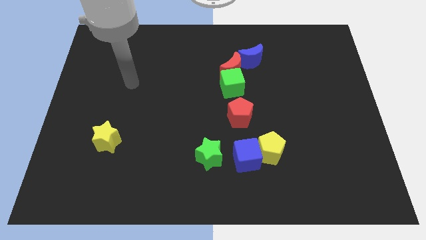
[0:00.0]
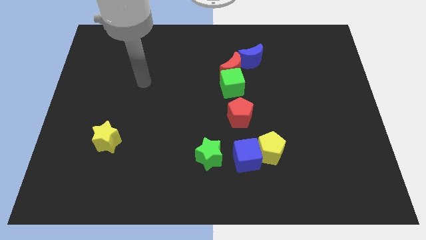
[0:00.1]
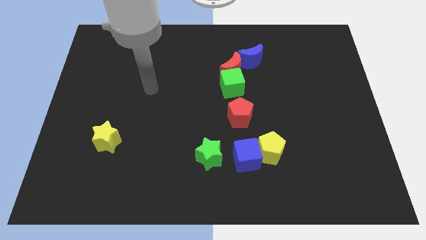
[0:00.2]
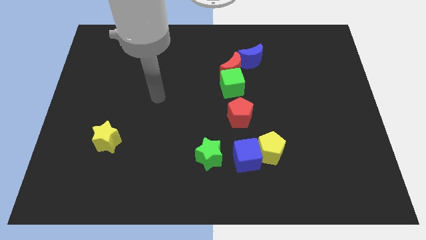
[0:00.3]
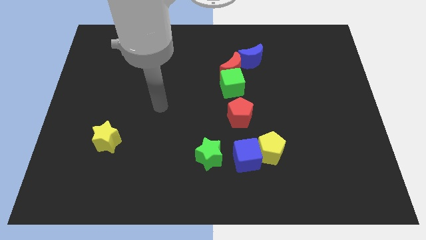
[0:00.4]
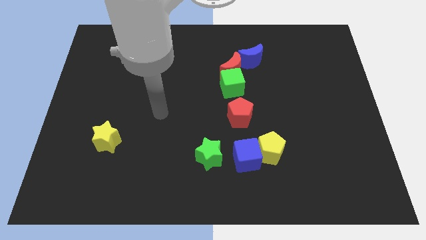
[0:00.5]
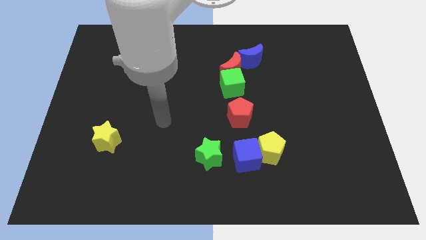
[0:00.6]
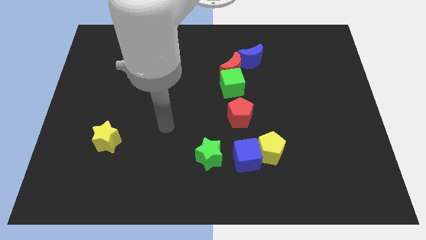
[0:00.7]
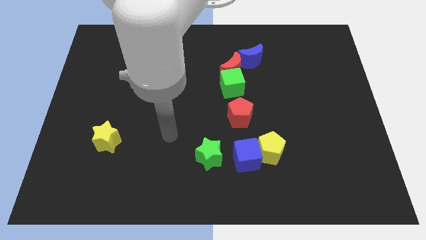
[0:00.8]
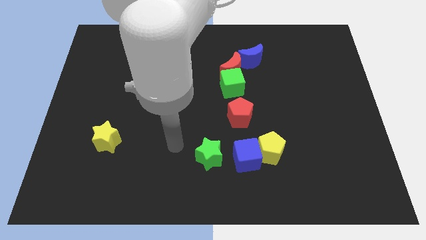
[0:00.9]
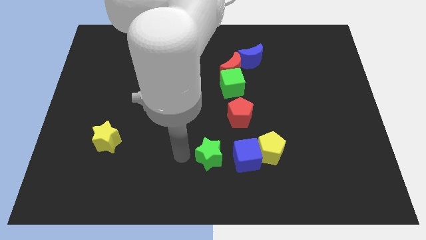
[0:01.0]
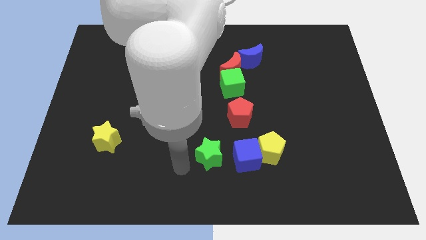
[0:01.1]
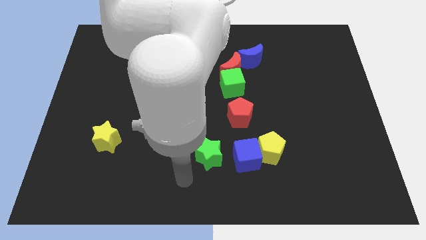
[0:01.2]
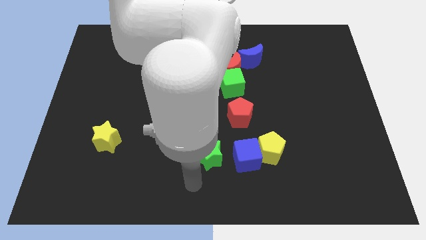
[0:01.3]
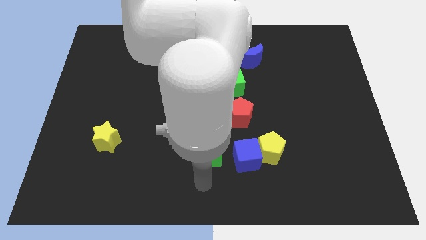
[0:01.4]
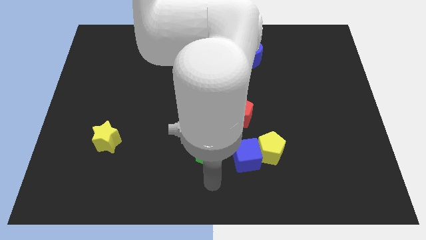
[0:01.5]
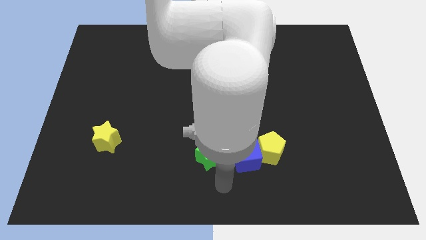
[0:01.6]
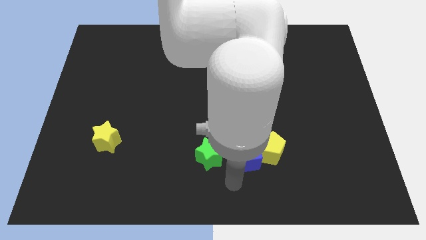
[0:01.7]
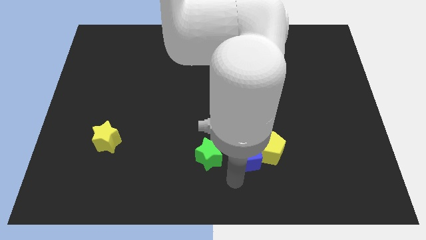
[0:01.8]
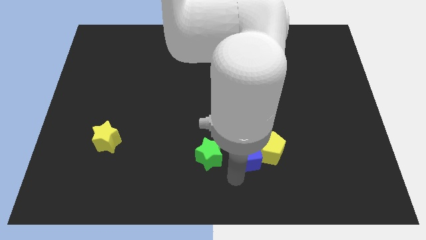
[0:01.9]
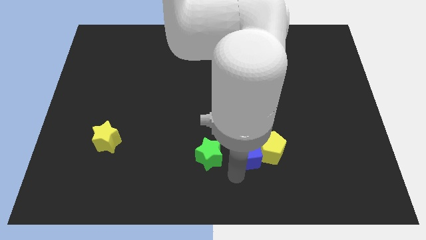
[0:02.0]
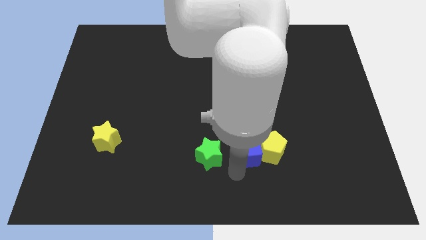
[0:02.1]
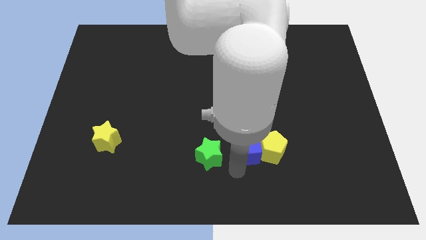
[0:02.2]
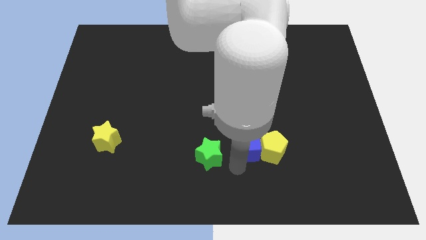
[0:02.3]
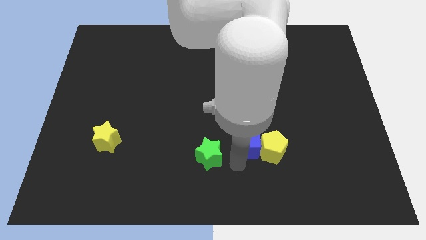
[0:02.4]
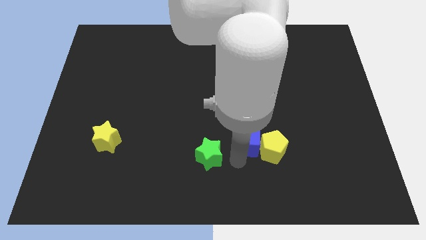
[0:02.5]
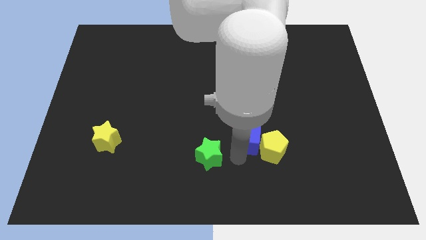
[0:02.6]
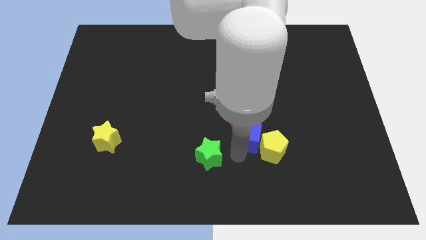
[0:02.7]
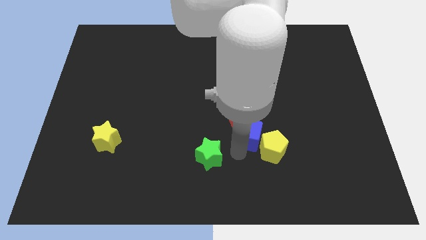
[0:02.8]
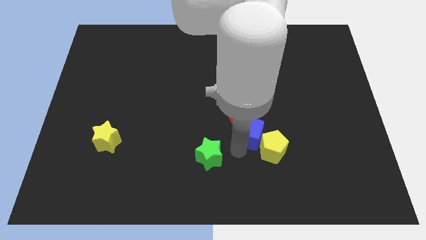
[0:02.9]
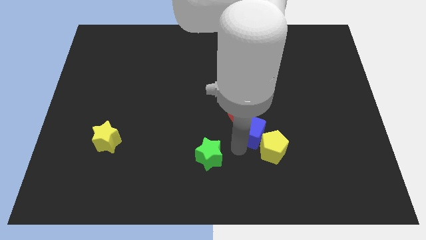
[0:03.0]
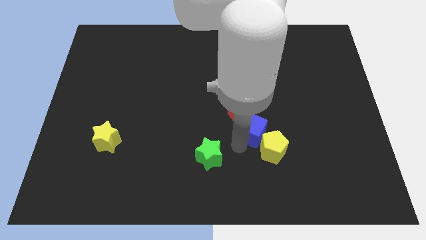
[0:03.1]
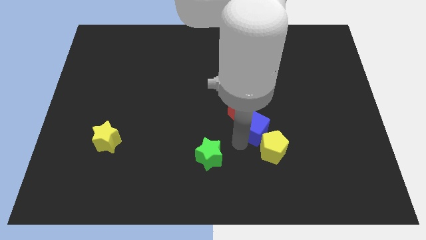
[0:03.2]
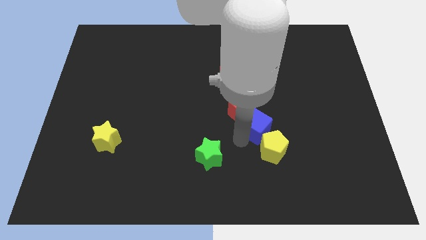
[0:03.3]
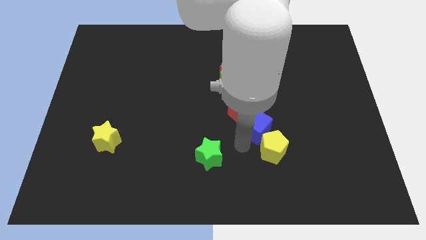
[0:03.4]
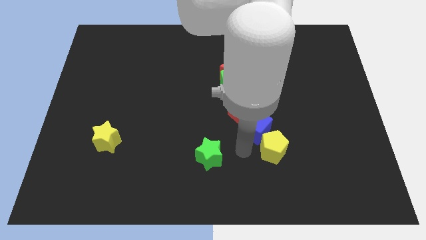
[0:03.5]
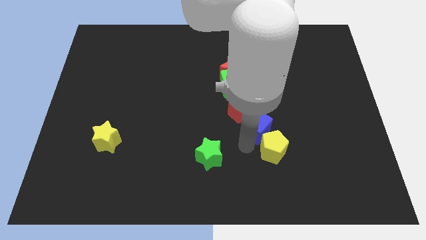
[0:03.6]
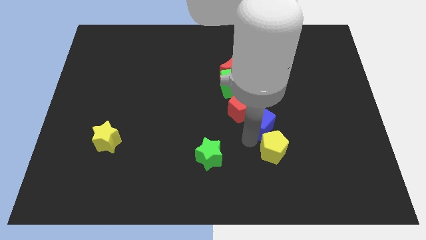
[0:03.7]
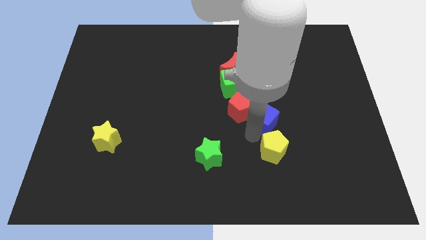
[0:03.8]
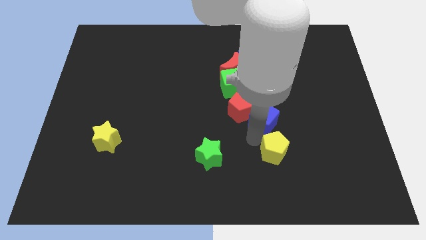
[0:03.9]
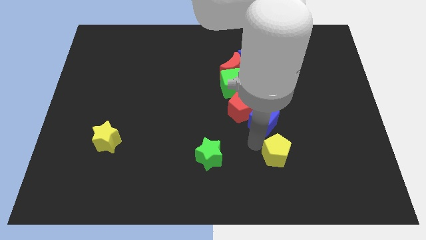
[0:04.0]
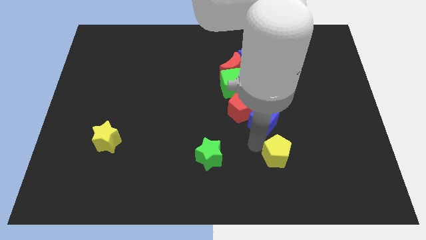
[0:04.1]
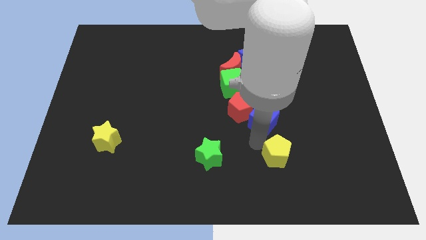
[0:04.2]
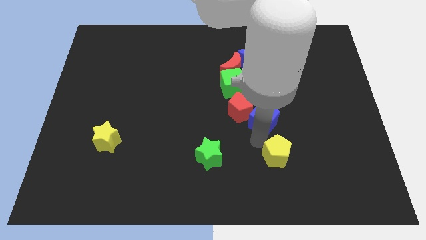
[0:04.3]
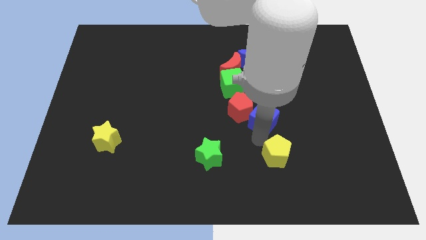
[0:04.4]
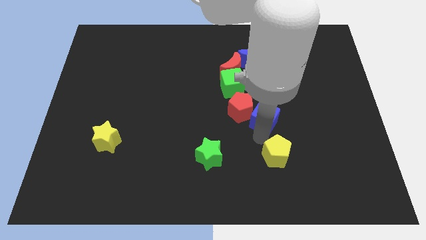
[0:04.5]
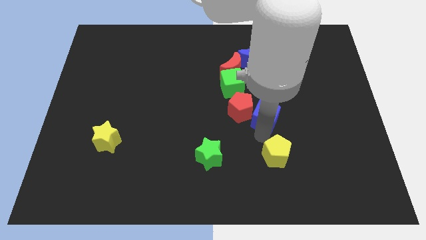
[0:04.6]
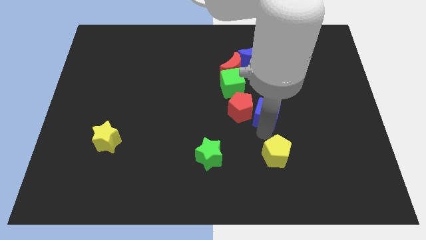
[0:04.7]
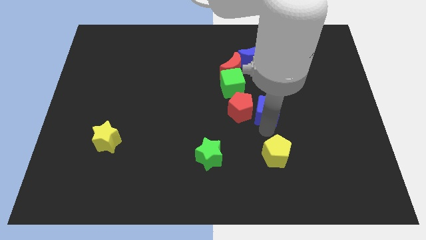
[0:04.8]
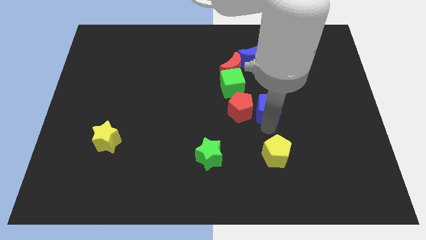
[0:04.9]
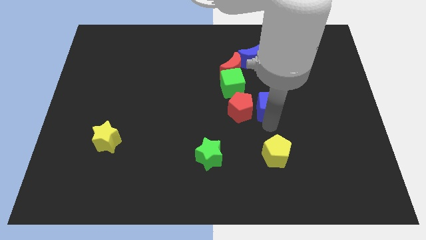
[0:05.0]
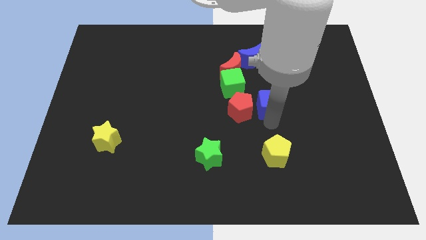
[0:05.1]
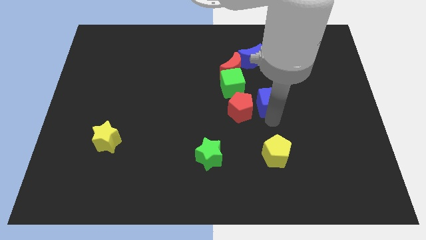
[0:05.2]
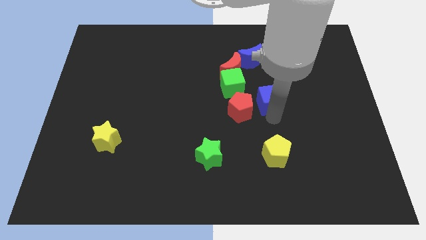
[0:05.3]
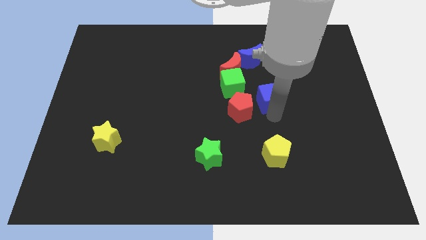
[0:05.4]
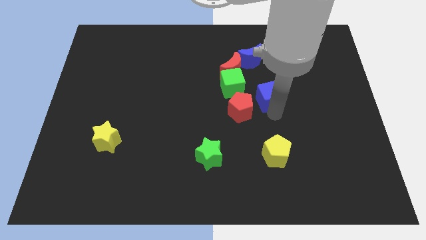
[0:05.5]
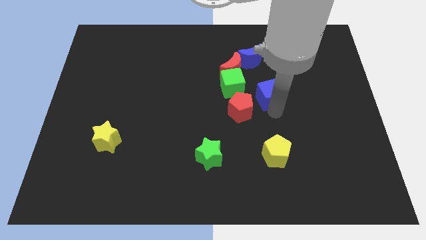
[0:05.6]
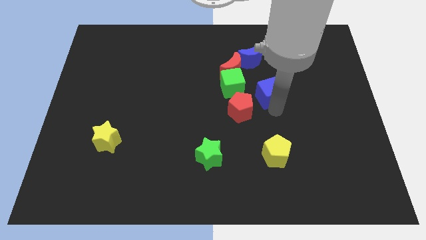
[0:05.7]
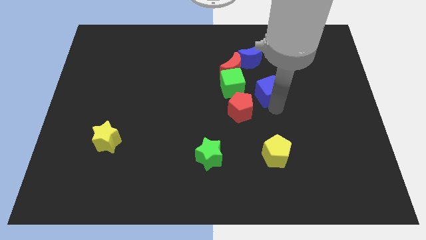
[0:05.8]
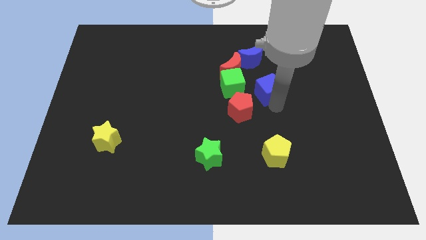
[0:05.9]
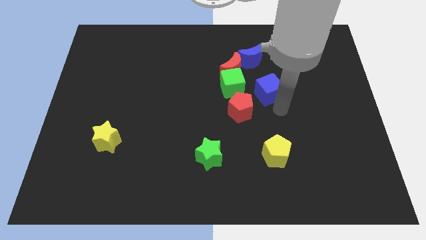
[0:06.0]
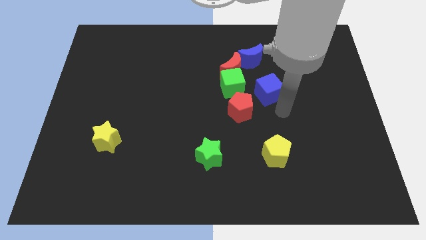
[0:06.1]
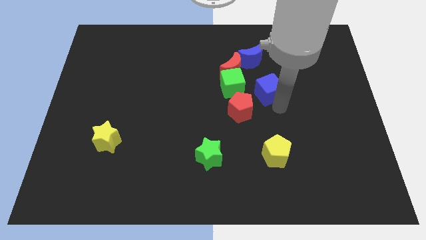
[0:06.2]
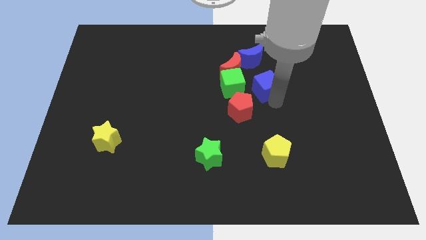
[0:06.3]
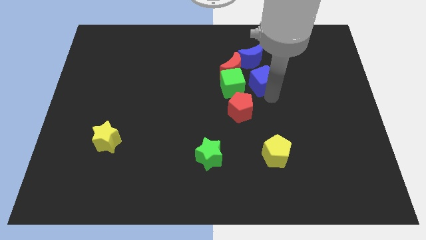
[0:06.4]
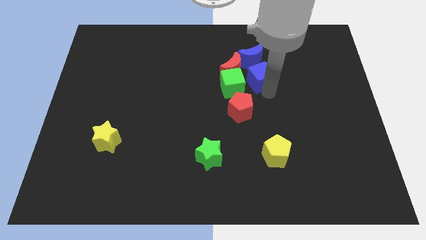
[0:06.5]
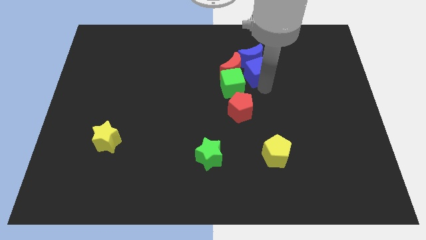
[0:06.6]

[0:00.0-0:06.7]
slide the blue cube towards the blue moon

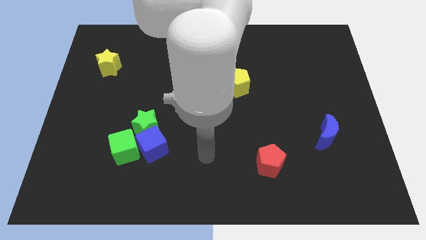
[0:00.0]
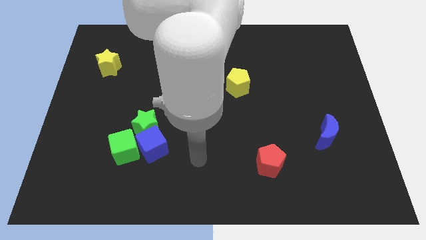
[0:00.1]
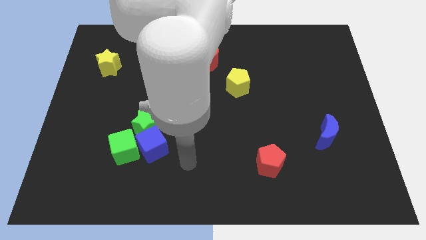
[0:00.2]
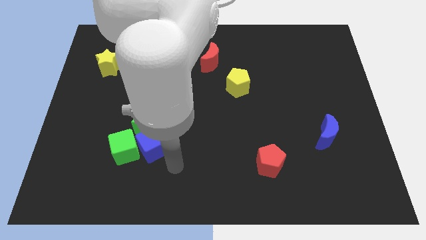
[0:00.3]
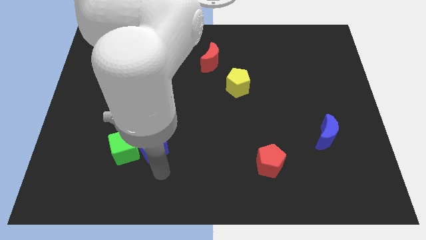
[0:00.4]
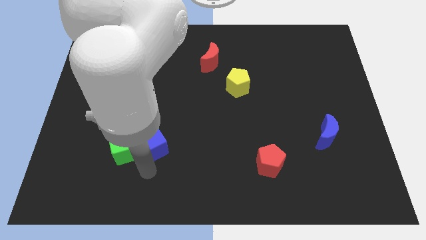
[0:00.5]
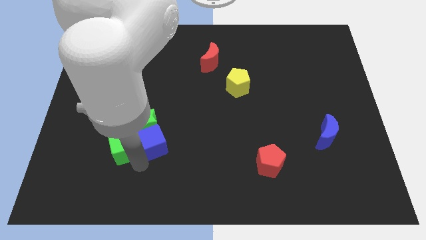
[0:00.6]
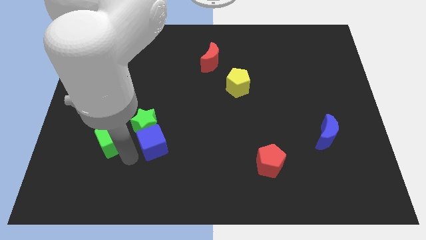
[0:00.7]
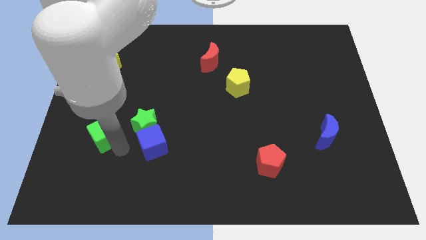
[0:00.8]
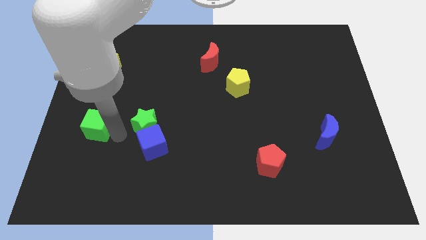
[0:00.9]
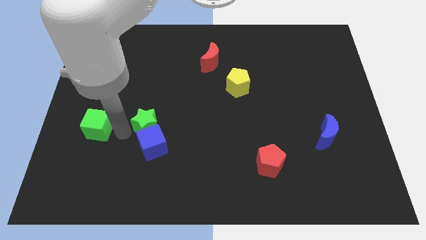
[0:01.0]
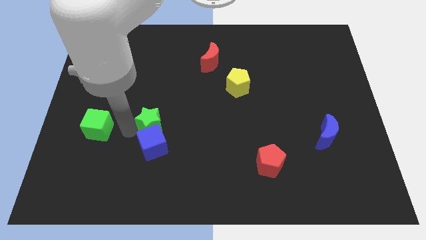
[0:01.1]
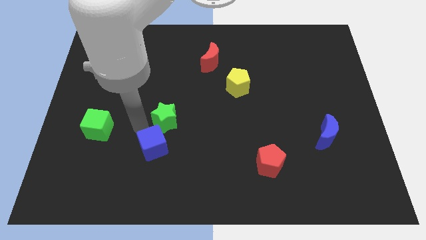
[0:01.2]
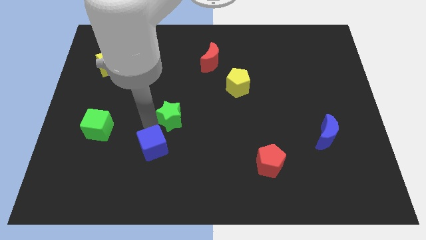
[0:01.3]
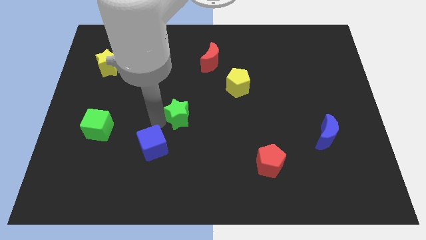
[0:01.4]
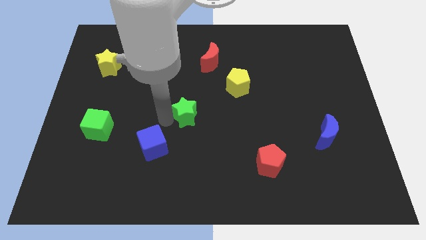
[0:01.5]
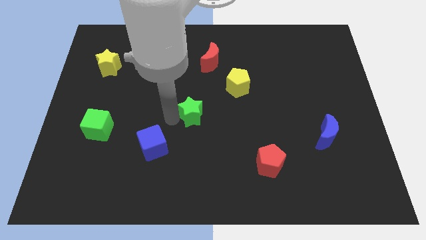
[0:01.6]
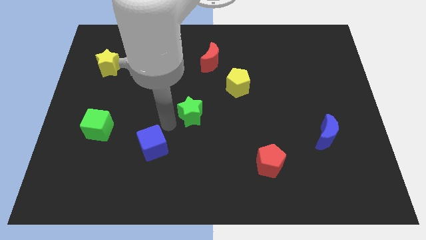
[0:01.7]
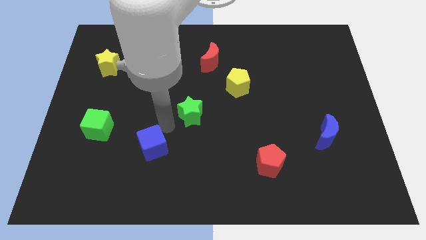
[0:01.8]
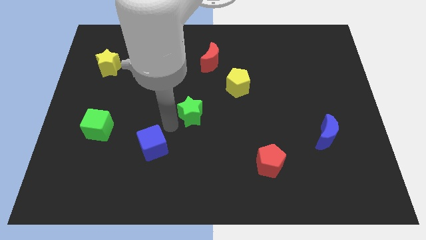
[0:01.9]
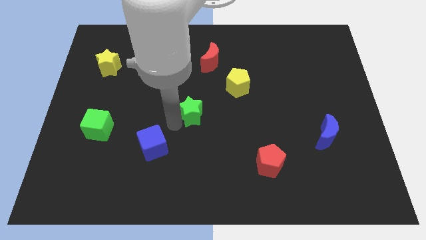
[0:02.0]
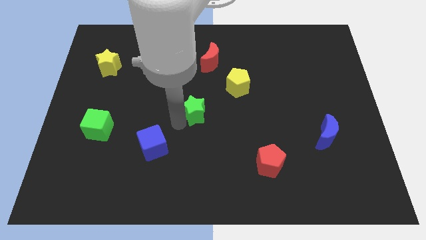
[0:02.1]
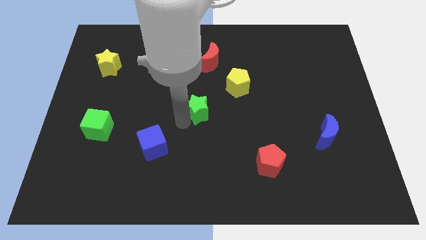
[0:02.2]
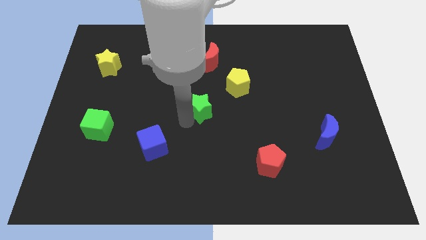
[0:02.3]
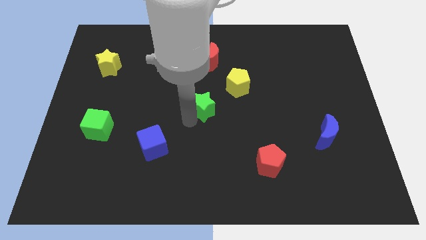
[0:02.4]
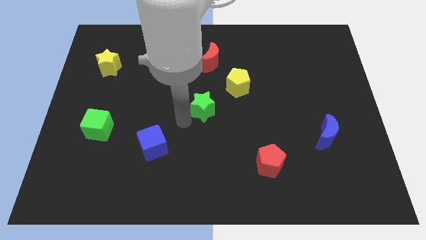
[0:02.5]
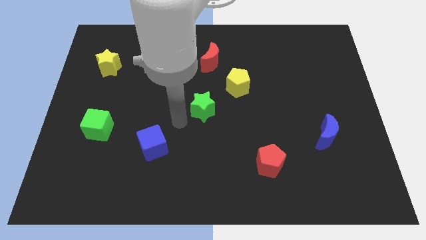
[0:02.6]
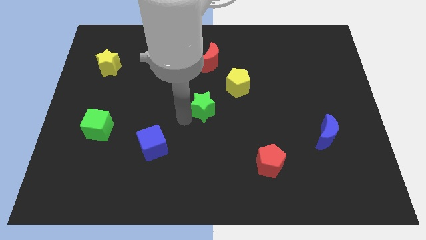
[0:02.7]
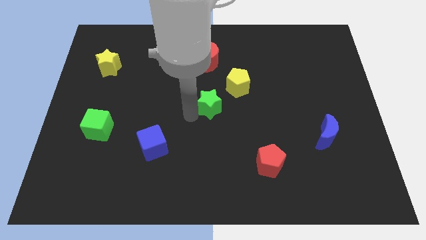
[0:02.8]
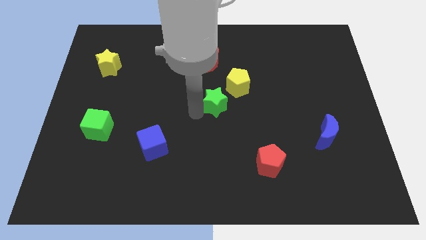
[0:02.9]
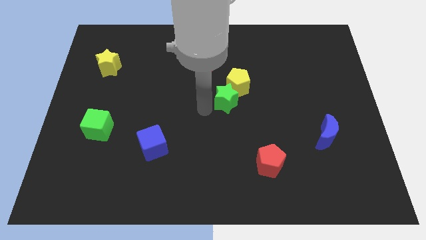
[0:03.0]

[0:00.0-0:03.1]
slide the green star next to the yellow pentagon
